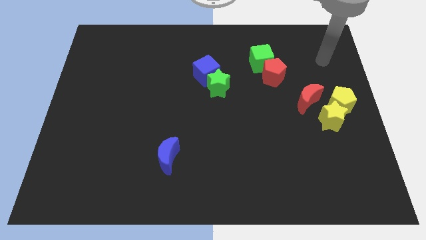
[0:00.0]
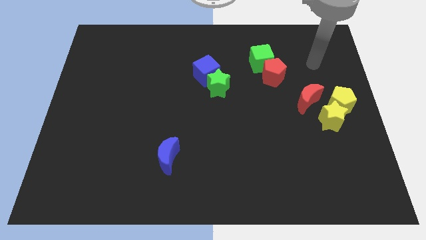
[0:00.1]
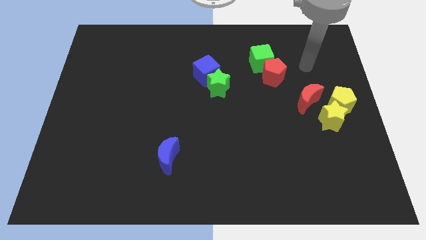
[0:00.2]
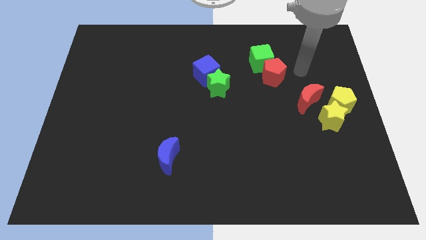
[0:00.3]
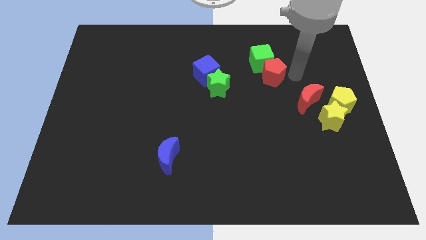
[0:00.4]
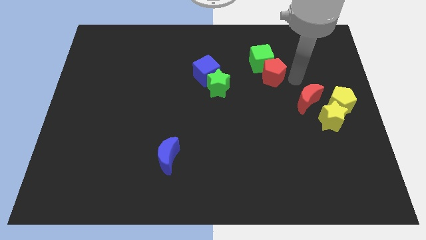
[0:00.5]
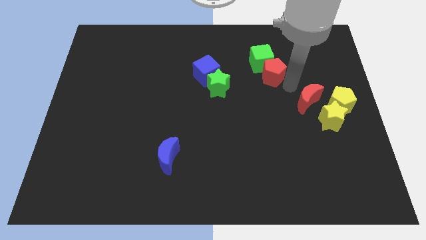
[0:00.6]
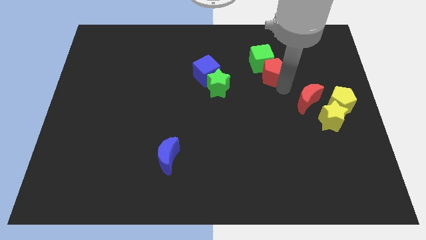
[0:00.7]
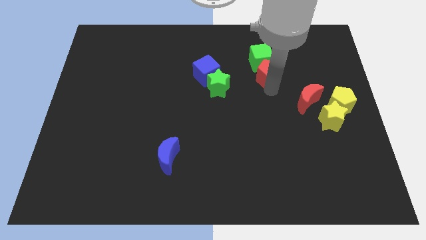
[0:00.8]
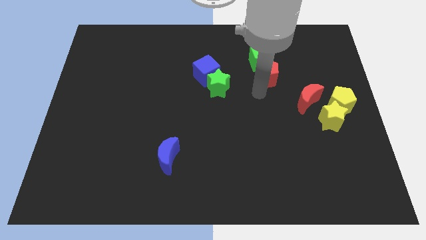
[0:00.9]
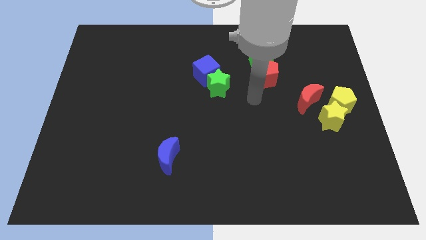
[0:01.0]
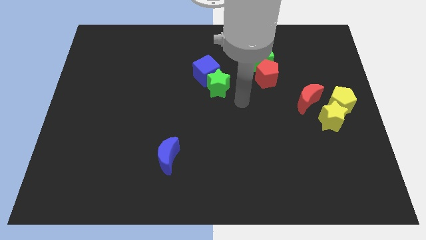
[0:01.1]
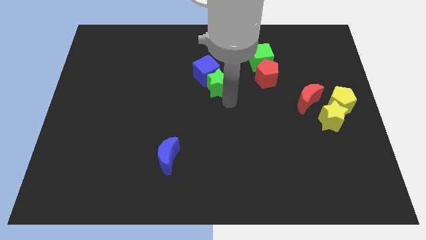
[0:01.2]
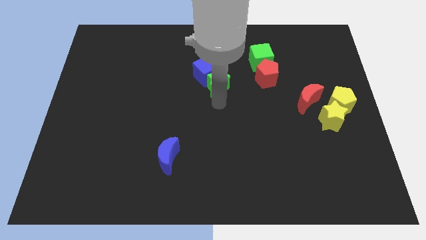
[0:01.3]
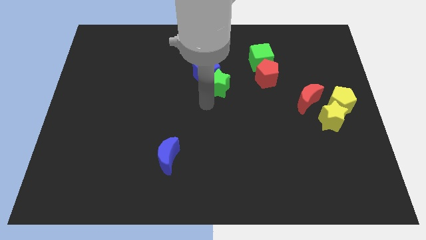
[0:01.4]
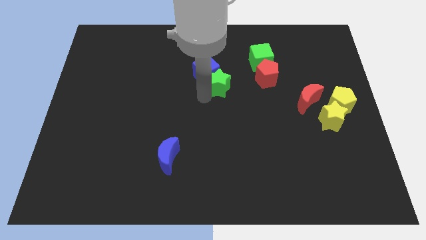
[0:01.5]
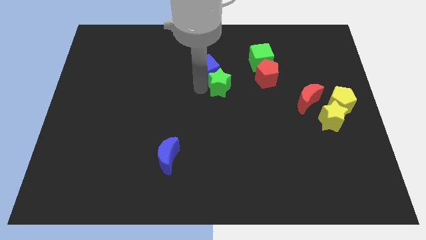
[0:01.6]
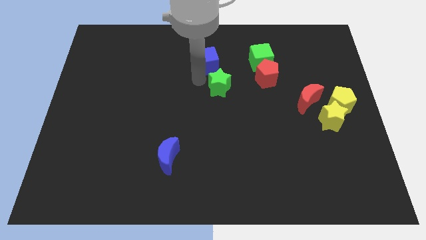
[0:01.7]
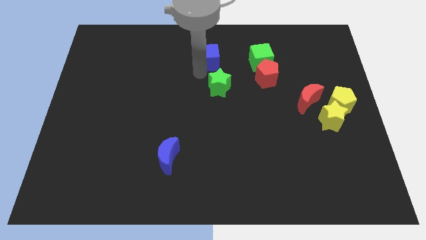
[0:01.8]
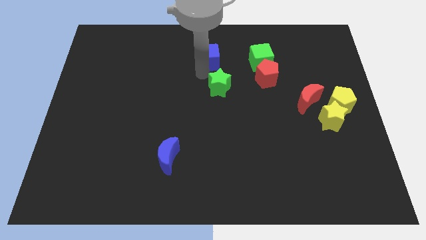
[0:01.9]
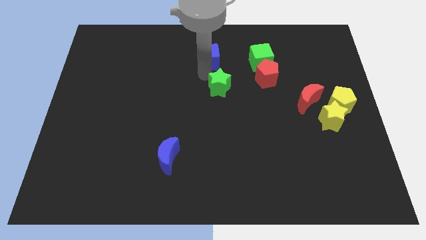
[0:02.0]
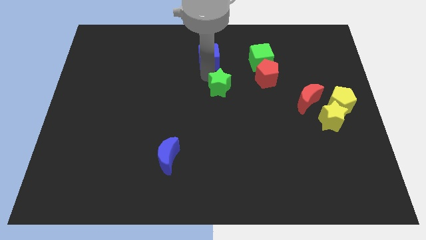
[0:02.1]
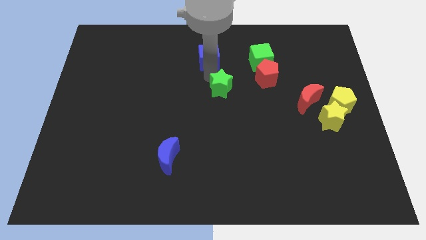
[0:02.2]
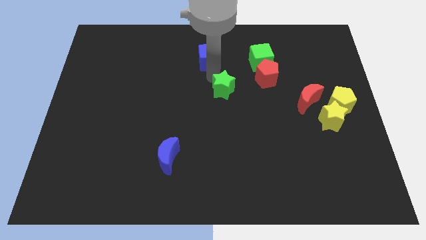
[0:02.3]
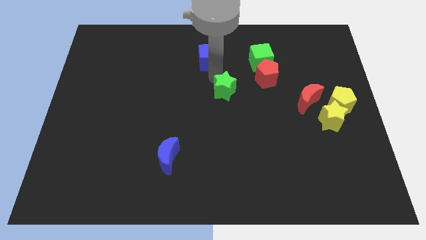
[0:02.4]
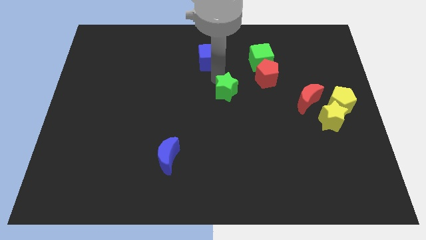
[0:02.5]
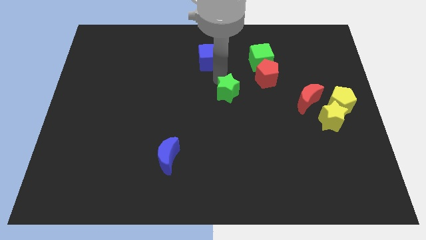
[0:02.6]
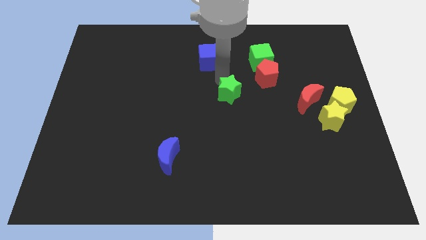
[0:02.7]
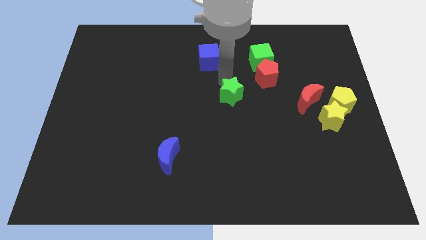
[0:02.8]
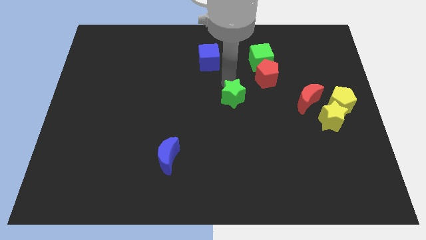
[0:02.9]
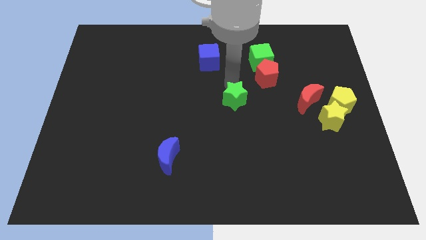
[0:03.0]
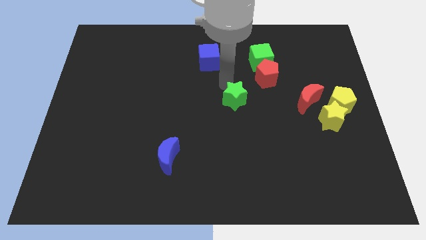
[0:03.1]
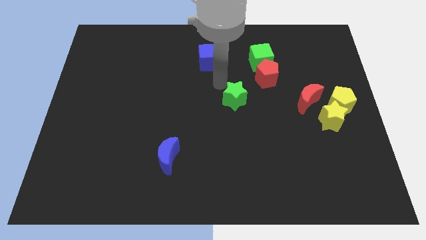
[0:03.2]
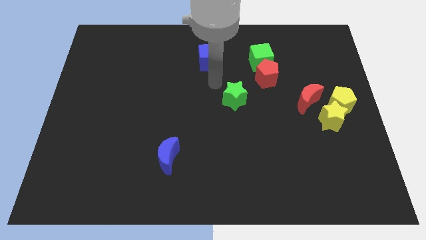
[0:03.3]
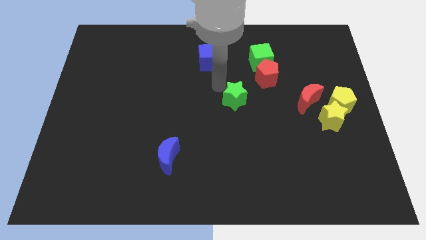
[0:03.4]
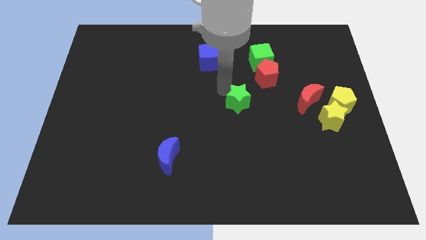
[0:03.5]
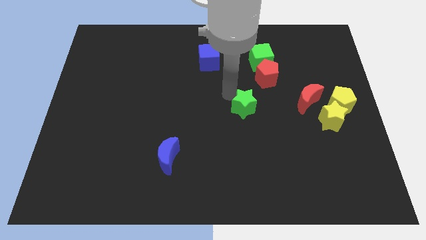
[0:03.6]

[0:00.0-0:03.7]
slide the green star down and then right a little bit

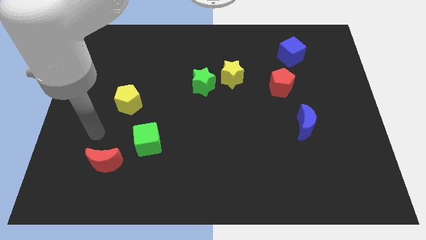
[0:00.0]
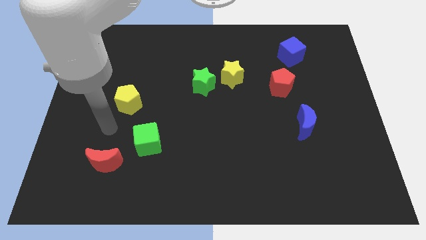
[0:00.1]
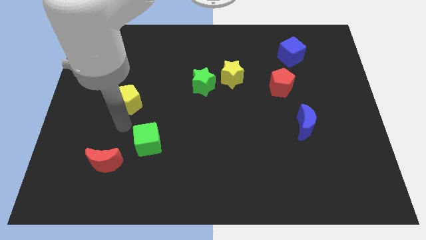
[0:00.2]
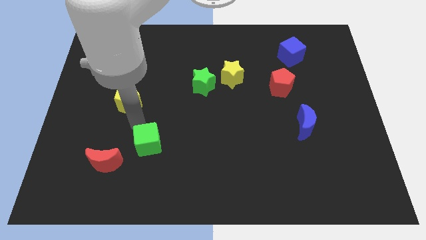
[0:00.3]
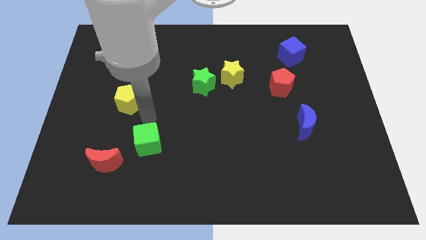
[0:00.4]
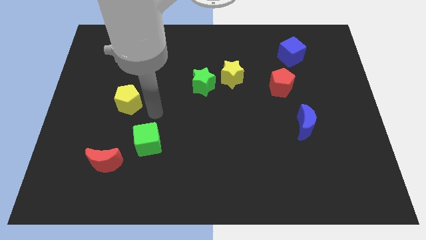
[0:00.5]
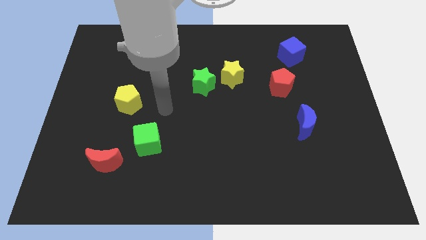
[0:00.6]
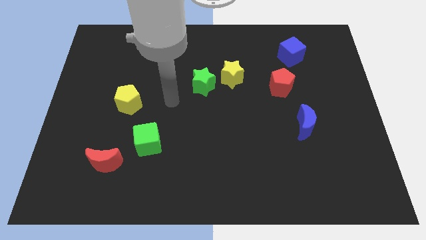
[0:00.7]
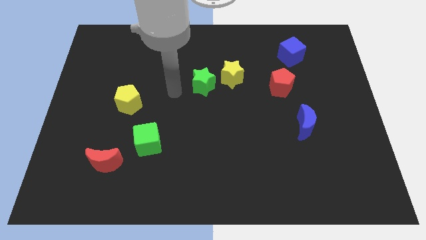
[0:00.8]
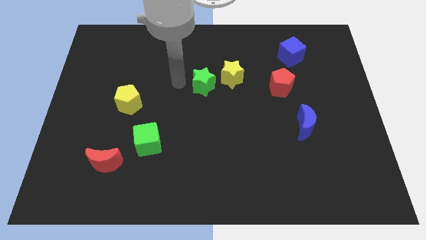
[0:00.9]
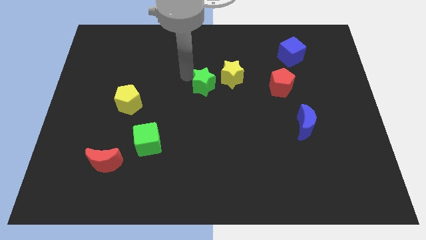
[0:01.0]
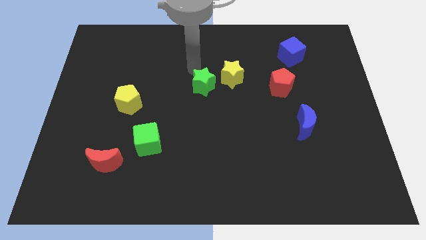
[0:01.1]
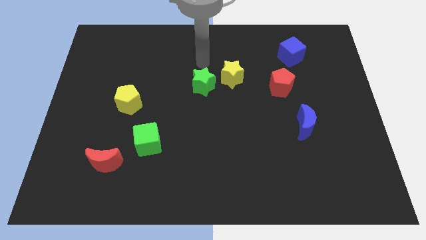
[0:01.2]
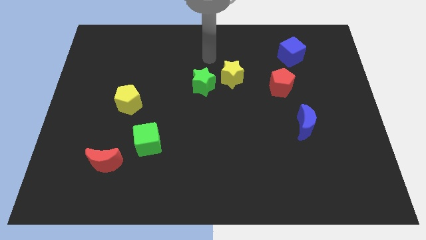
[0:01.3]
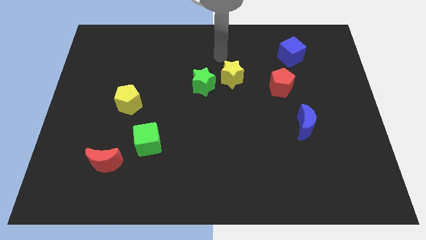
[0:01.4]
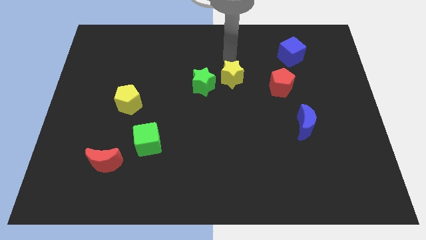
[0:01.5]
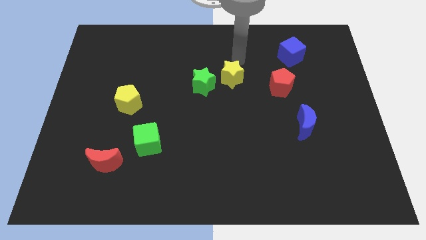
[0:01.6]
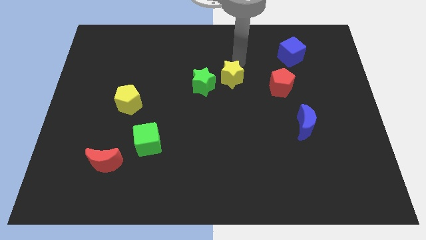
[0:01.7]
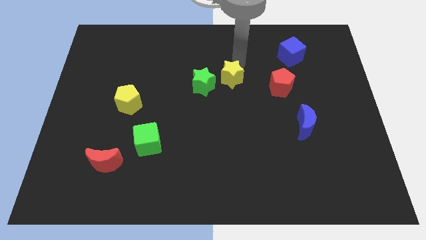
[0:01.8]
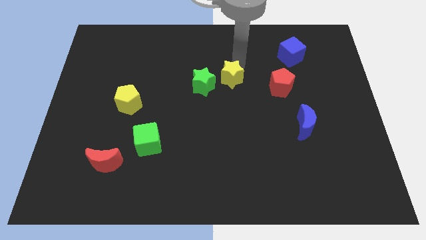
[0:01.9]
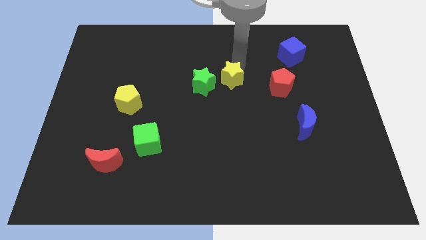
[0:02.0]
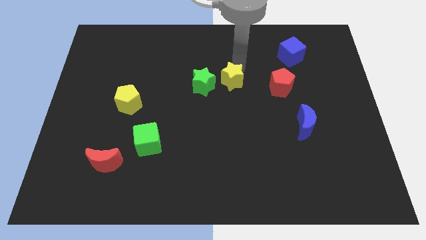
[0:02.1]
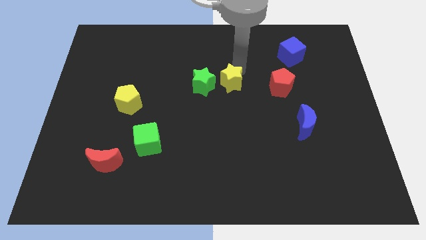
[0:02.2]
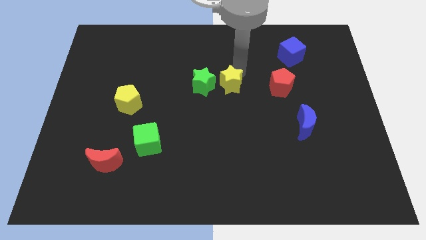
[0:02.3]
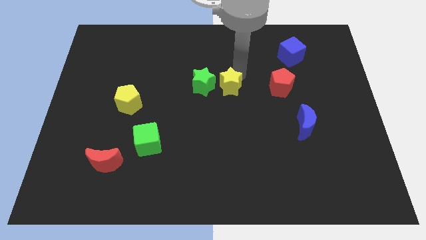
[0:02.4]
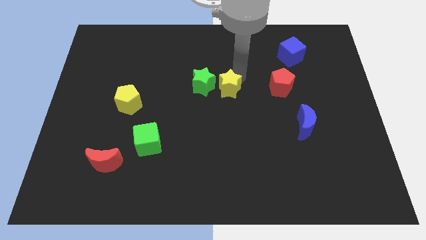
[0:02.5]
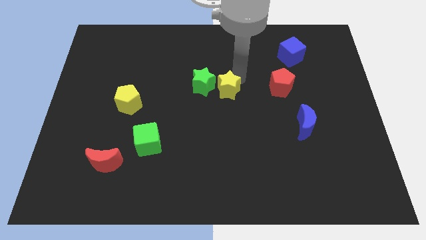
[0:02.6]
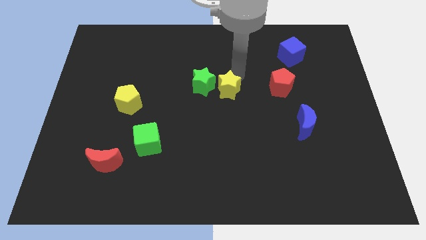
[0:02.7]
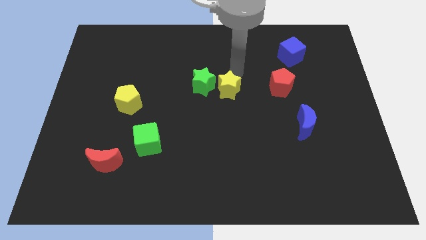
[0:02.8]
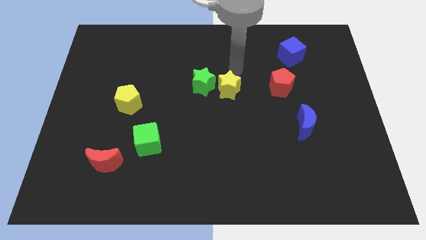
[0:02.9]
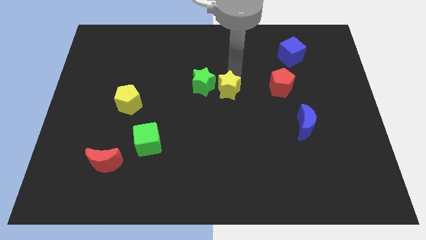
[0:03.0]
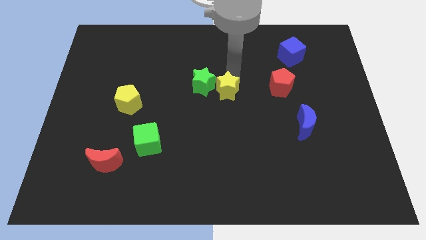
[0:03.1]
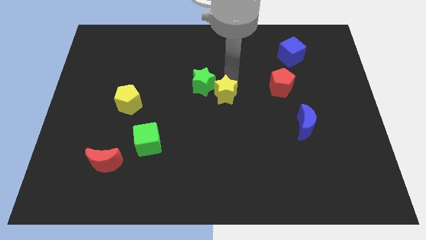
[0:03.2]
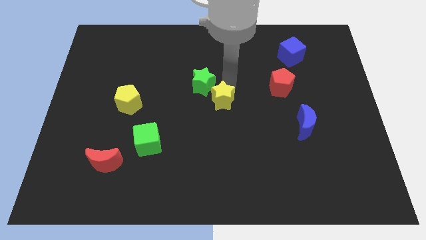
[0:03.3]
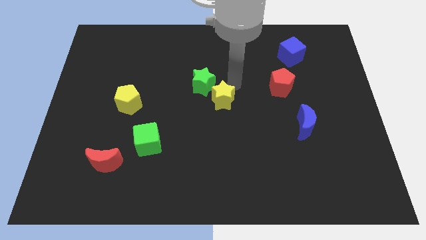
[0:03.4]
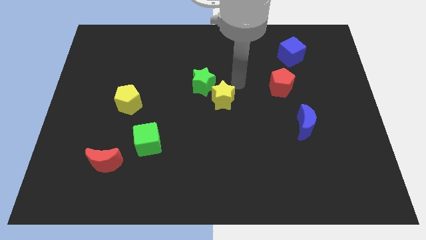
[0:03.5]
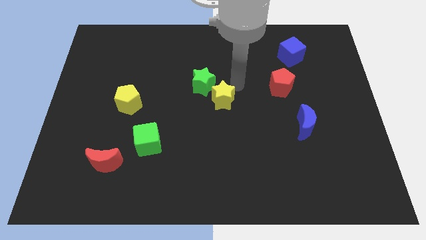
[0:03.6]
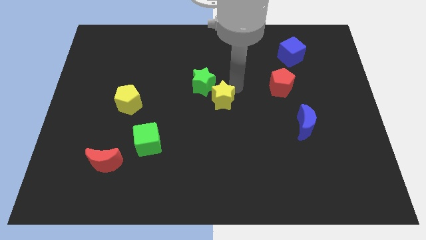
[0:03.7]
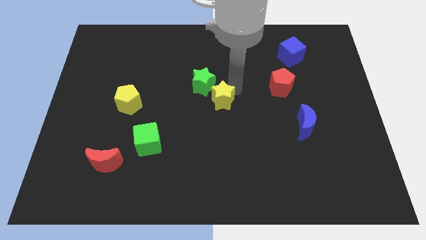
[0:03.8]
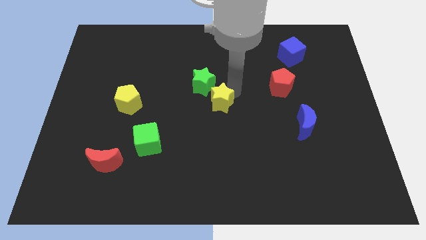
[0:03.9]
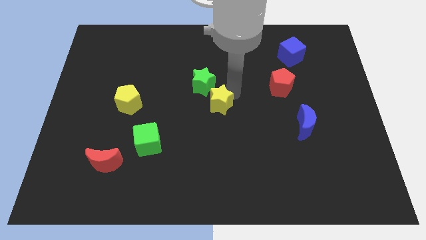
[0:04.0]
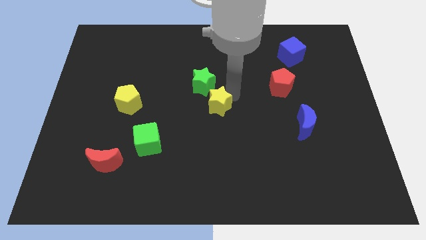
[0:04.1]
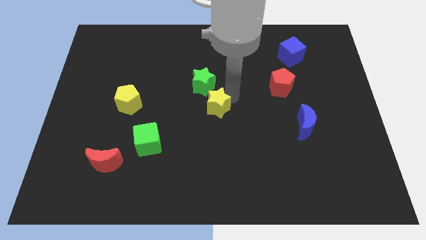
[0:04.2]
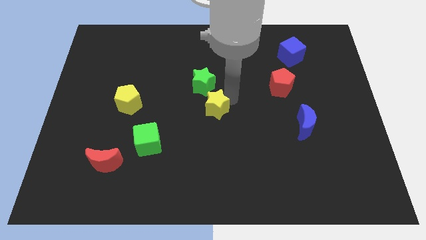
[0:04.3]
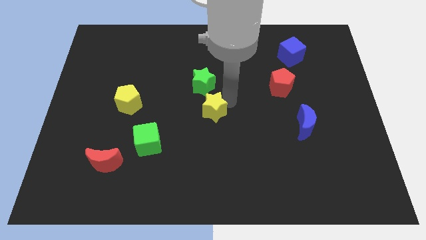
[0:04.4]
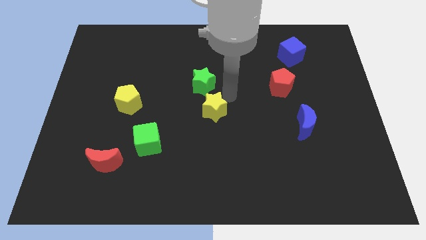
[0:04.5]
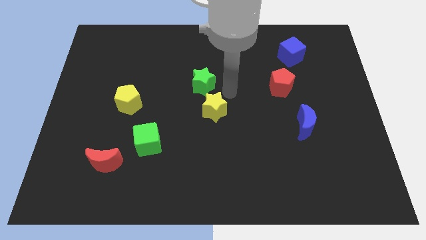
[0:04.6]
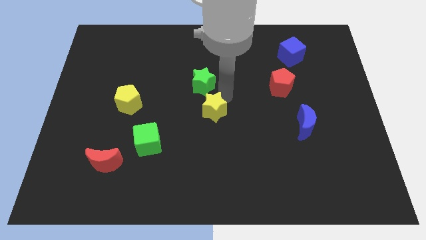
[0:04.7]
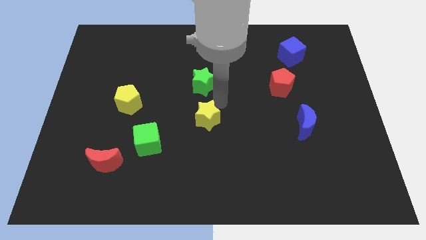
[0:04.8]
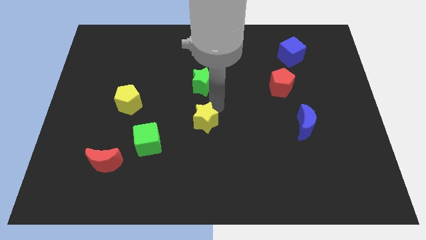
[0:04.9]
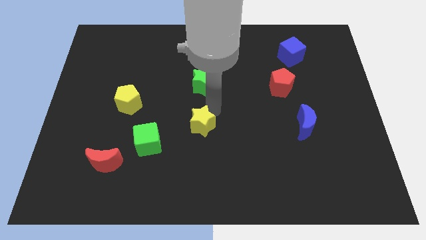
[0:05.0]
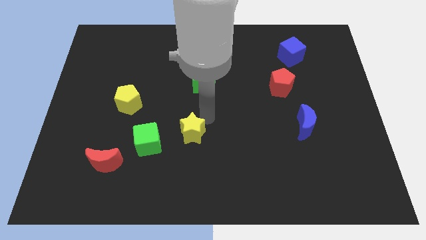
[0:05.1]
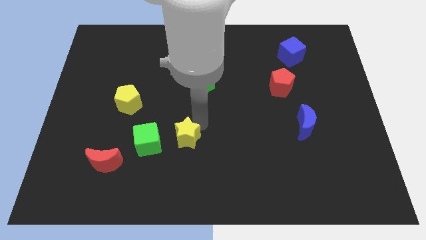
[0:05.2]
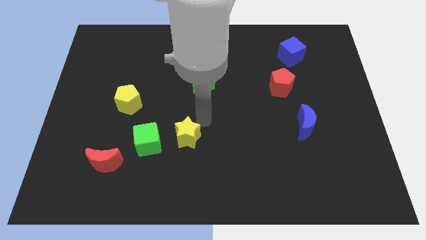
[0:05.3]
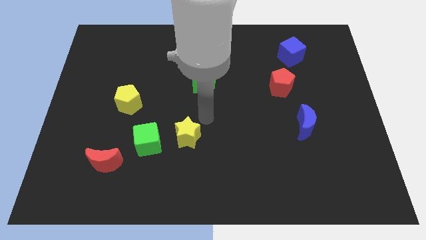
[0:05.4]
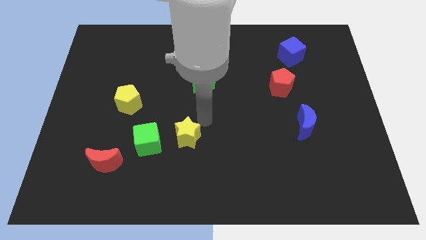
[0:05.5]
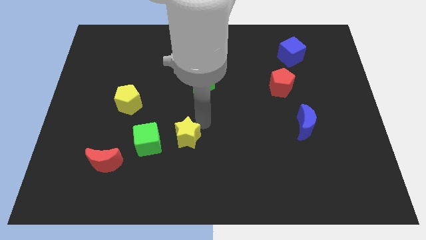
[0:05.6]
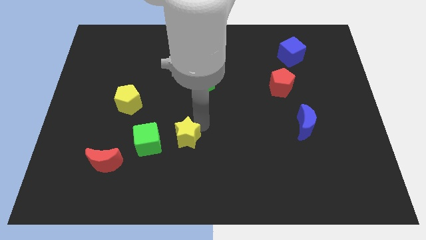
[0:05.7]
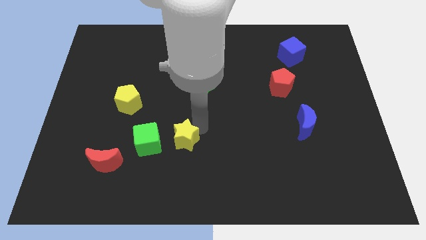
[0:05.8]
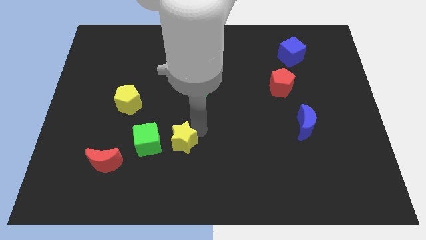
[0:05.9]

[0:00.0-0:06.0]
move the yellow star downwards and then left
